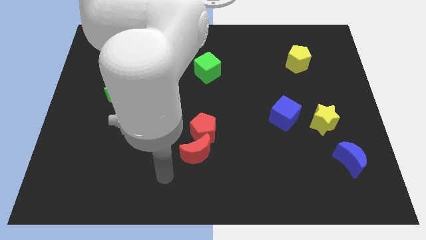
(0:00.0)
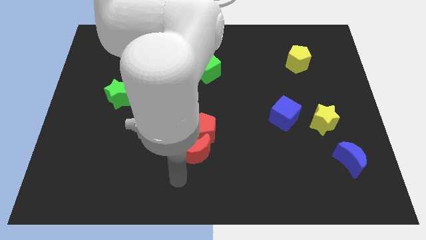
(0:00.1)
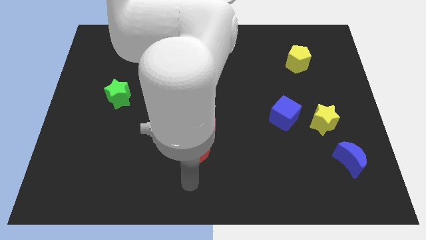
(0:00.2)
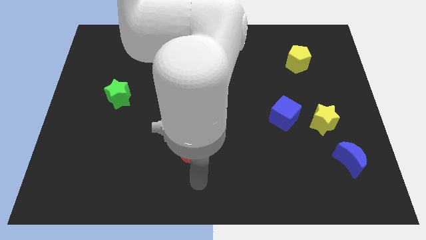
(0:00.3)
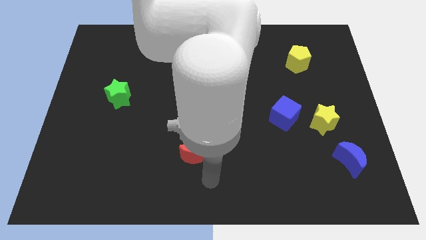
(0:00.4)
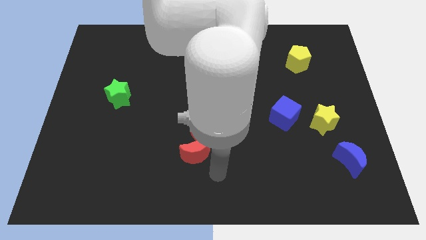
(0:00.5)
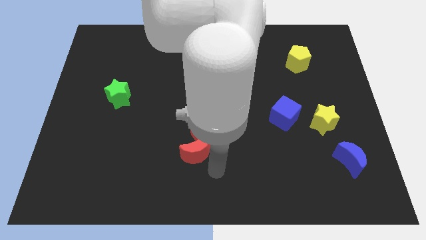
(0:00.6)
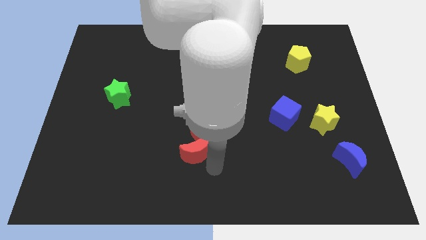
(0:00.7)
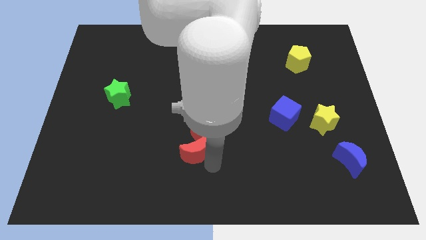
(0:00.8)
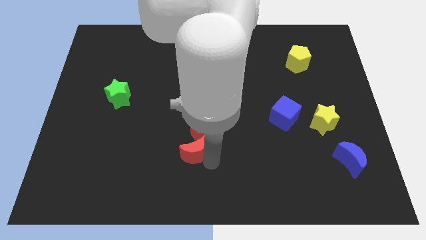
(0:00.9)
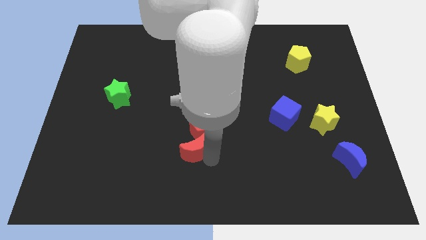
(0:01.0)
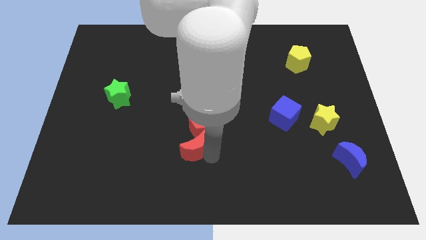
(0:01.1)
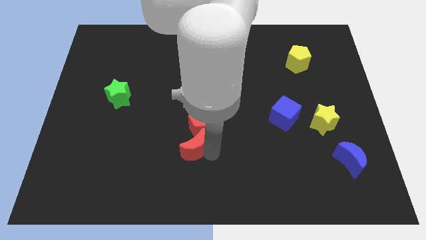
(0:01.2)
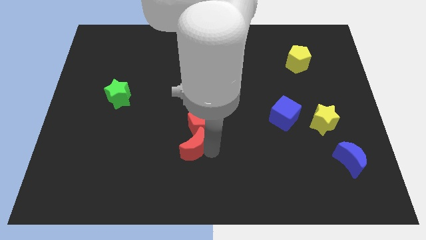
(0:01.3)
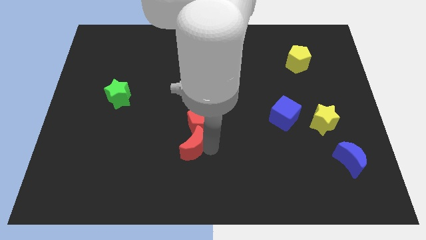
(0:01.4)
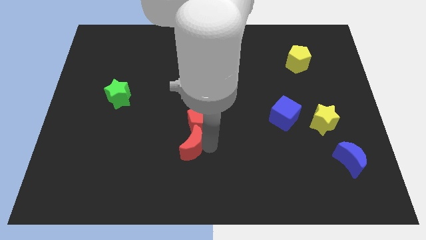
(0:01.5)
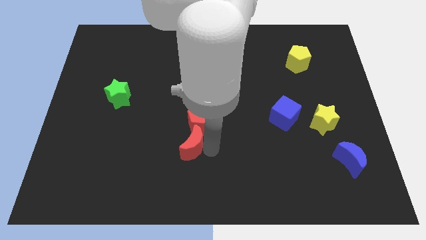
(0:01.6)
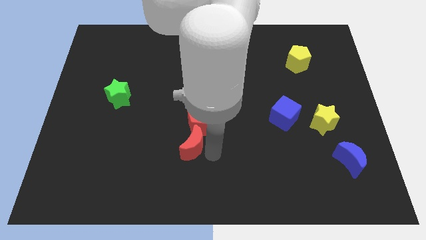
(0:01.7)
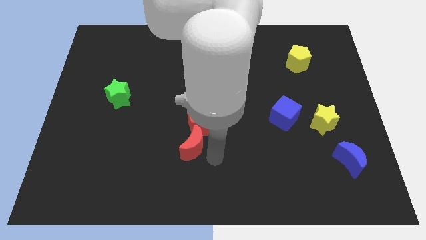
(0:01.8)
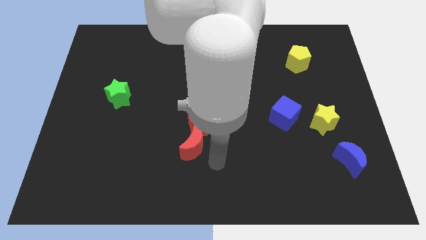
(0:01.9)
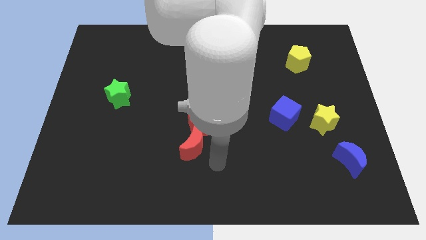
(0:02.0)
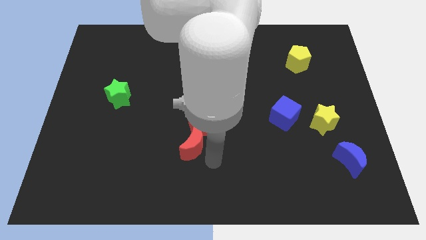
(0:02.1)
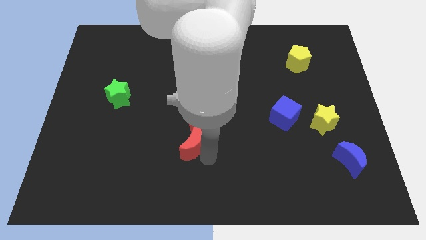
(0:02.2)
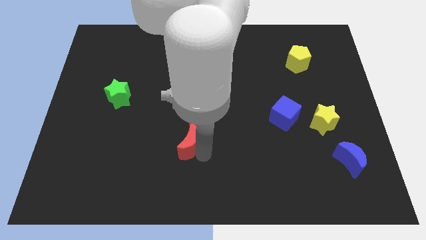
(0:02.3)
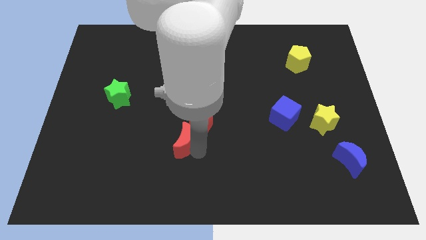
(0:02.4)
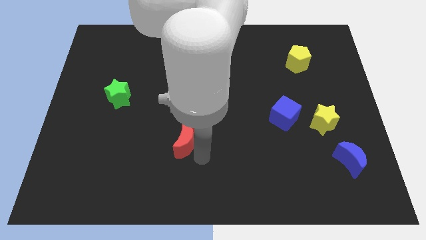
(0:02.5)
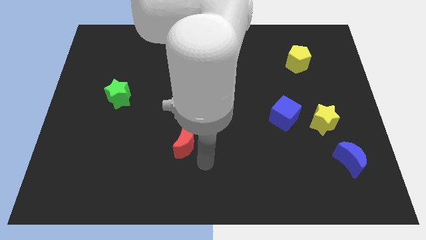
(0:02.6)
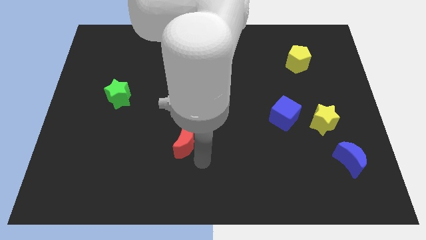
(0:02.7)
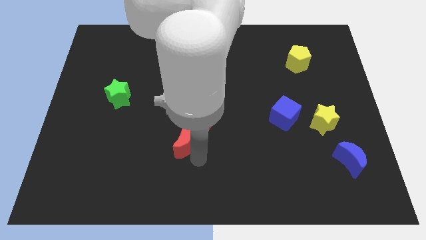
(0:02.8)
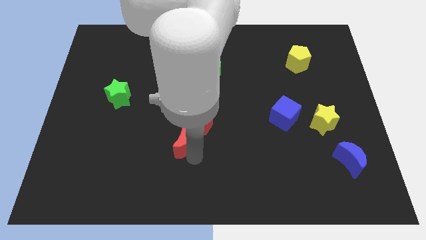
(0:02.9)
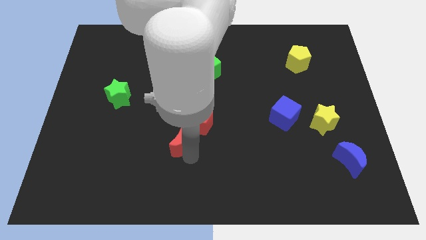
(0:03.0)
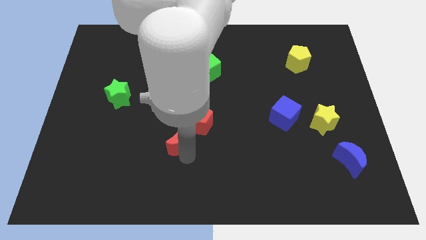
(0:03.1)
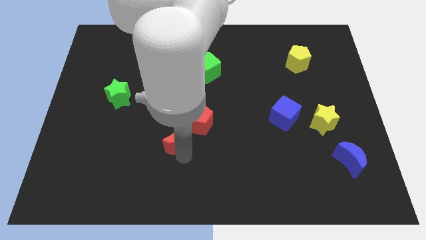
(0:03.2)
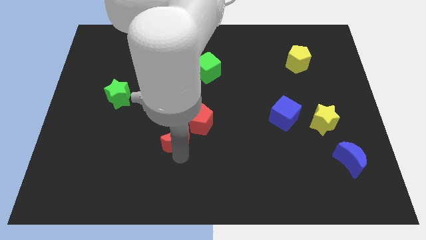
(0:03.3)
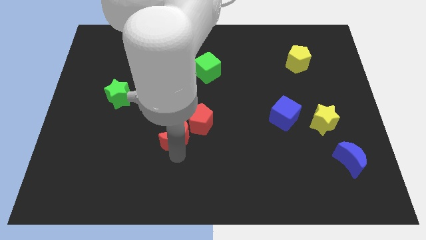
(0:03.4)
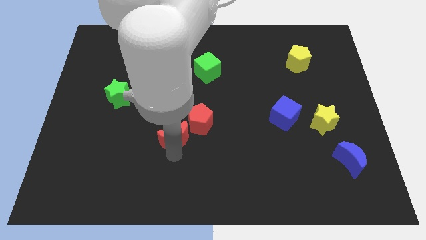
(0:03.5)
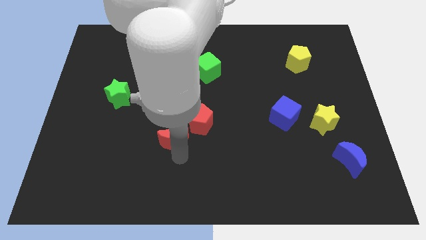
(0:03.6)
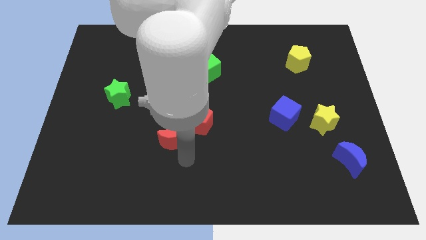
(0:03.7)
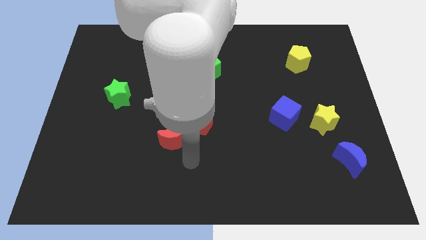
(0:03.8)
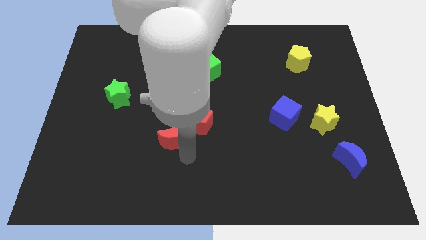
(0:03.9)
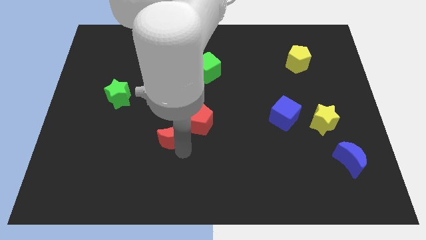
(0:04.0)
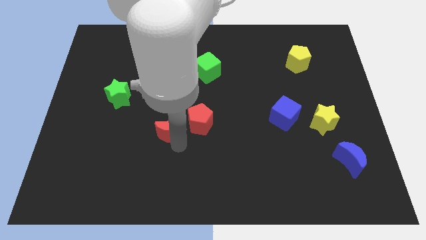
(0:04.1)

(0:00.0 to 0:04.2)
move the red moon a little bit upwards and then to the left

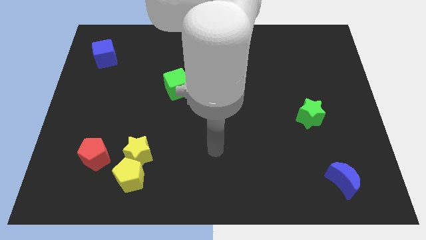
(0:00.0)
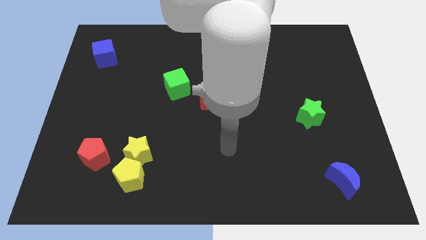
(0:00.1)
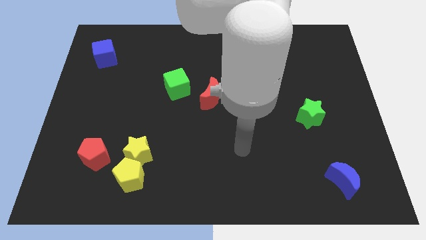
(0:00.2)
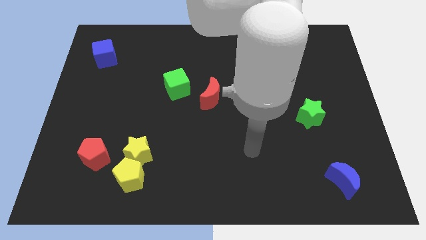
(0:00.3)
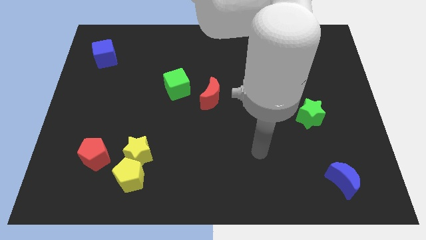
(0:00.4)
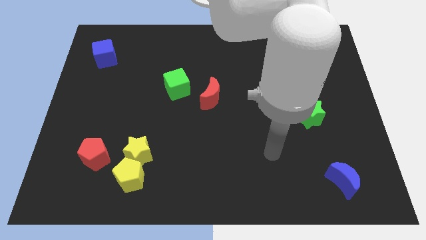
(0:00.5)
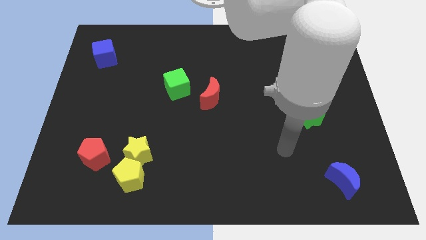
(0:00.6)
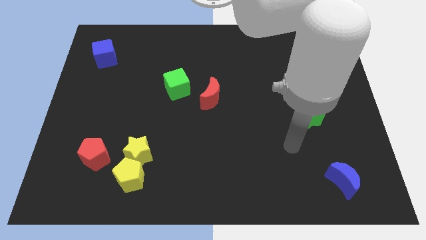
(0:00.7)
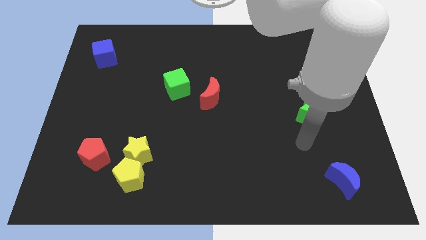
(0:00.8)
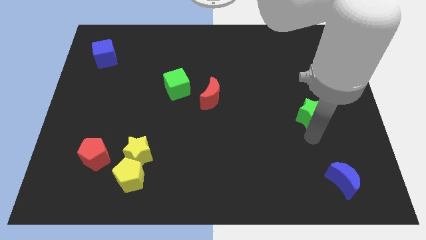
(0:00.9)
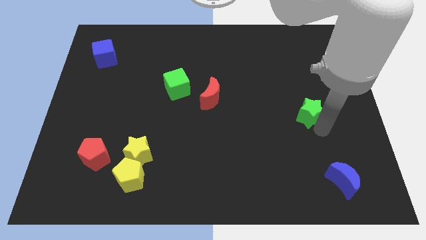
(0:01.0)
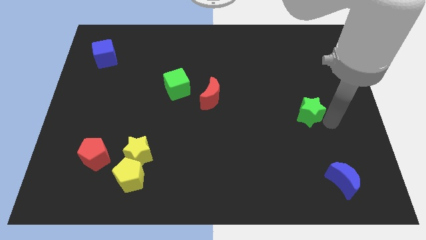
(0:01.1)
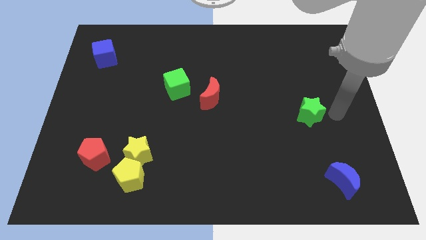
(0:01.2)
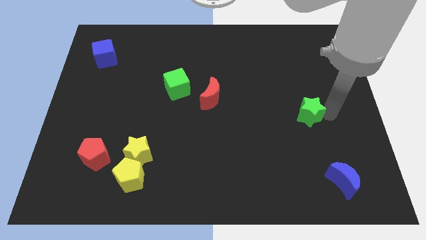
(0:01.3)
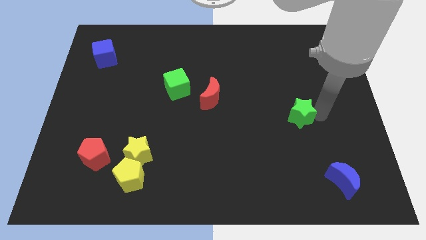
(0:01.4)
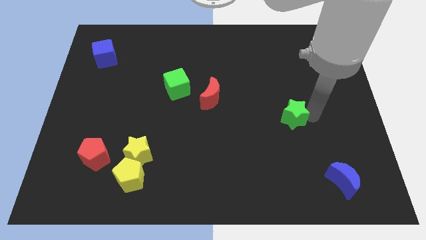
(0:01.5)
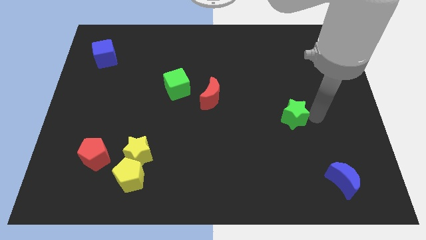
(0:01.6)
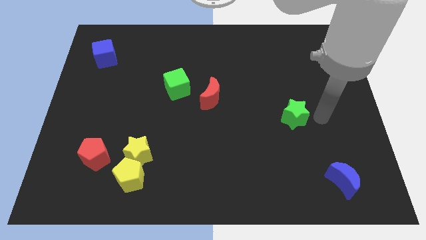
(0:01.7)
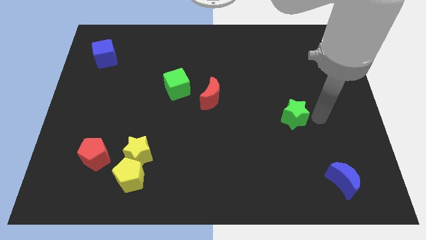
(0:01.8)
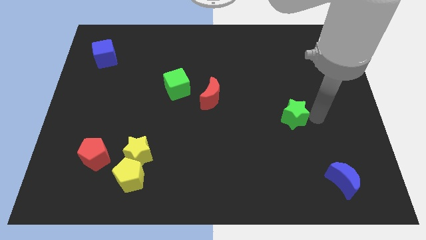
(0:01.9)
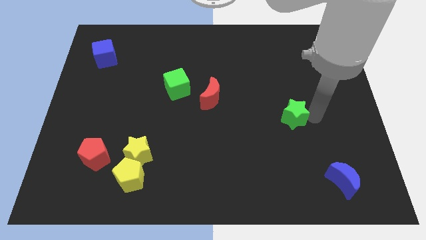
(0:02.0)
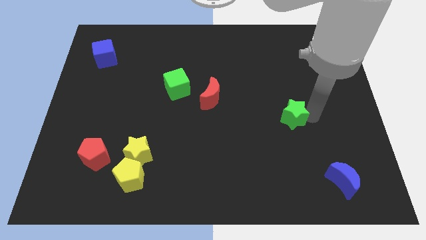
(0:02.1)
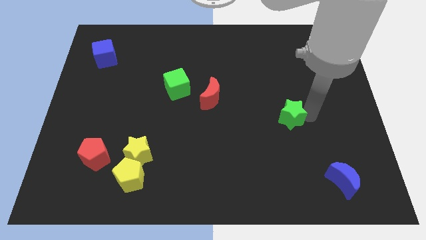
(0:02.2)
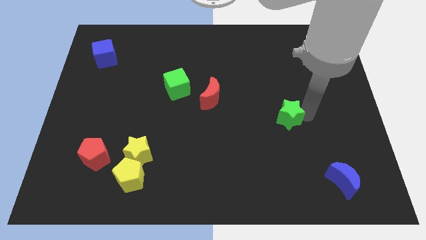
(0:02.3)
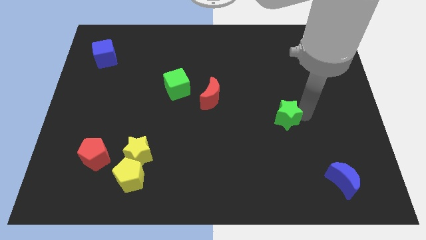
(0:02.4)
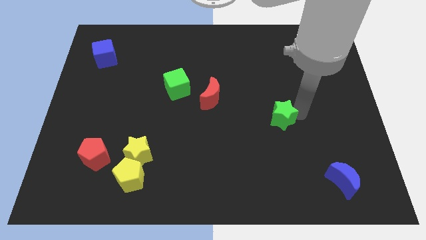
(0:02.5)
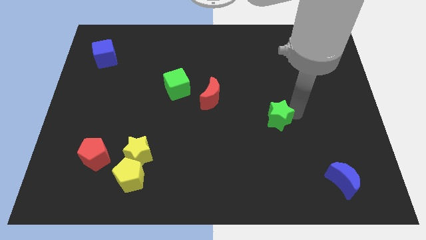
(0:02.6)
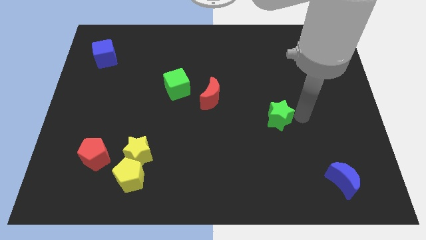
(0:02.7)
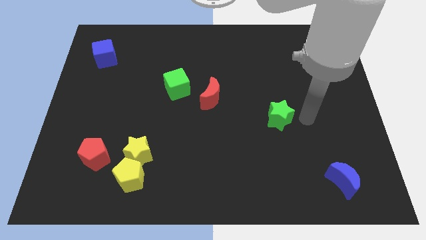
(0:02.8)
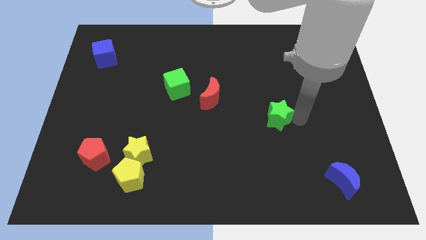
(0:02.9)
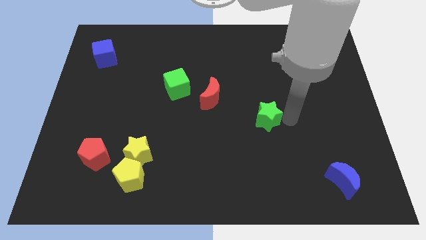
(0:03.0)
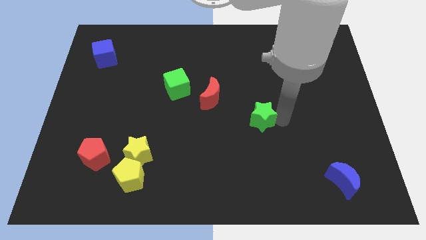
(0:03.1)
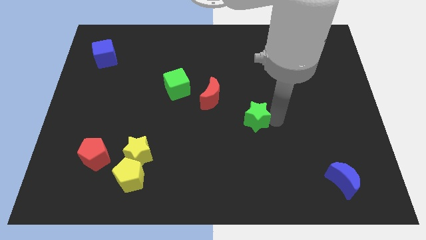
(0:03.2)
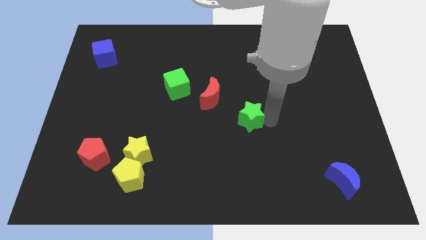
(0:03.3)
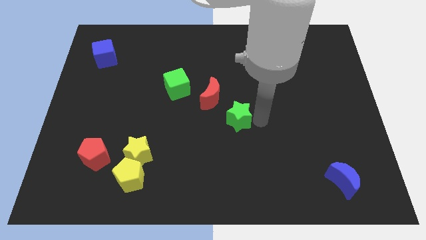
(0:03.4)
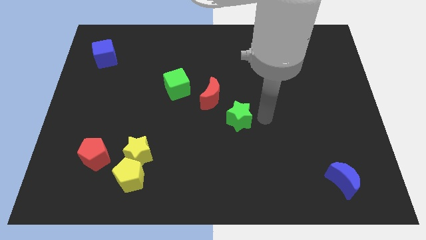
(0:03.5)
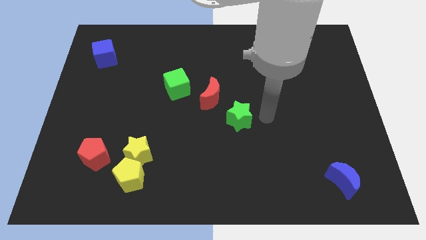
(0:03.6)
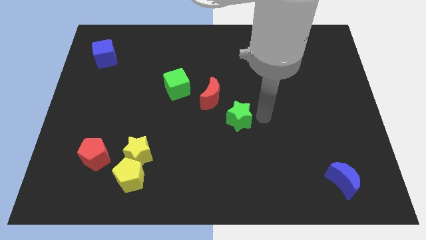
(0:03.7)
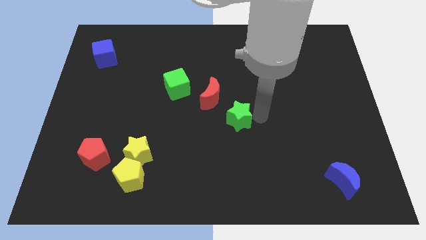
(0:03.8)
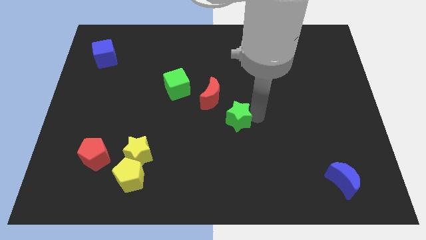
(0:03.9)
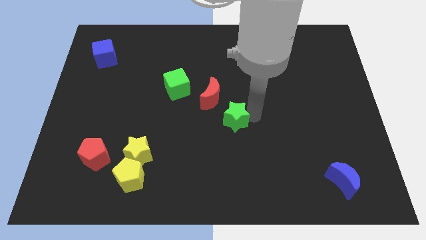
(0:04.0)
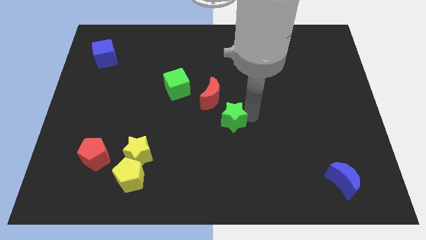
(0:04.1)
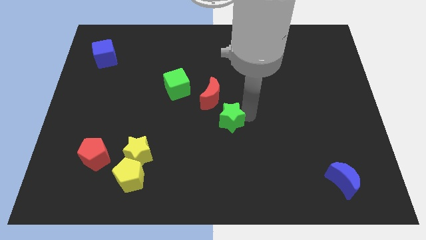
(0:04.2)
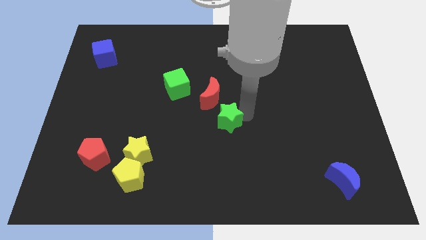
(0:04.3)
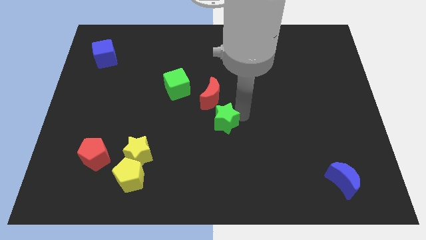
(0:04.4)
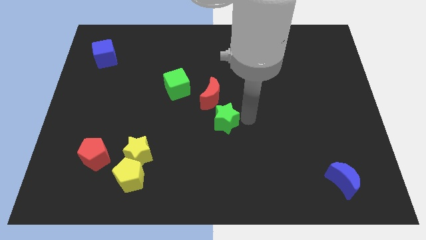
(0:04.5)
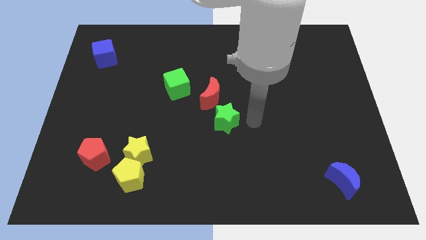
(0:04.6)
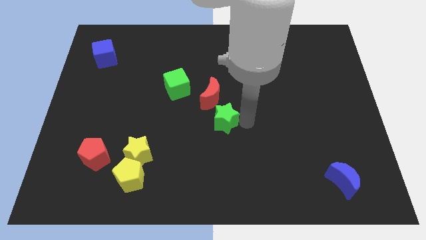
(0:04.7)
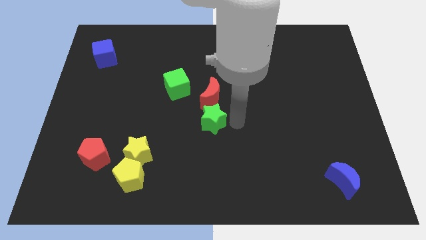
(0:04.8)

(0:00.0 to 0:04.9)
slide the green star to the left
